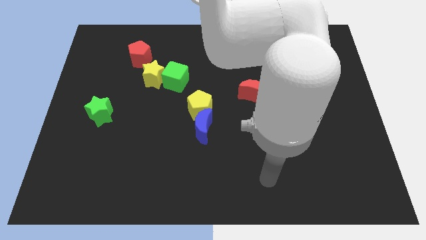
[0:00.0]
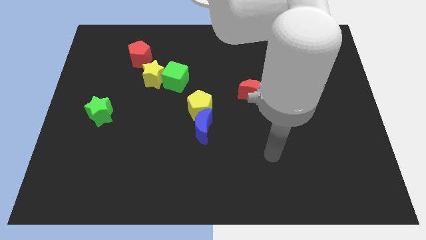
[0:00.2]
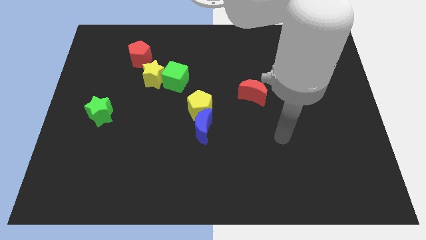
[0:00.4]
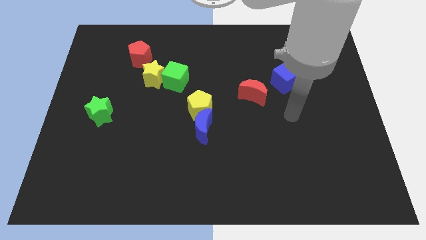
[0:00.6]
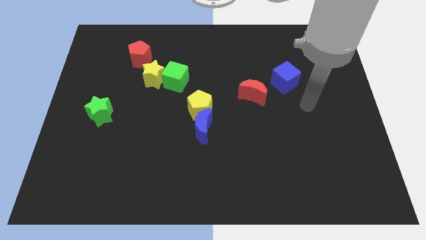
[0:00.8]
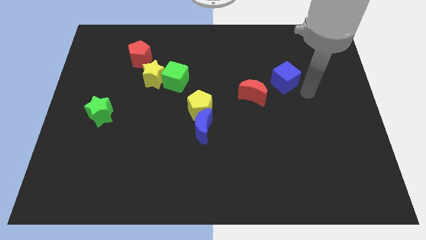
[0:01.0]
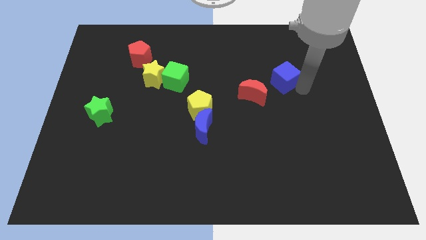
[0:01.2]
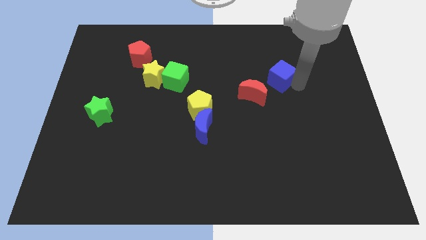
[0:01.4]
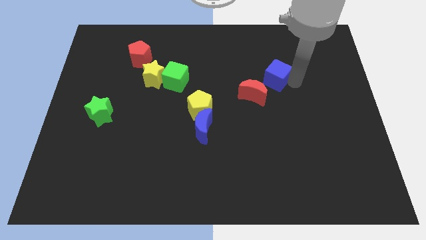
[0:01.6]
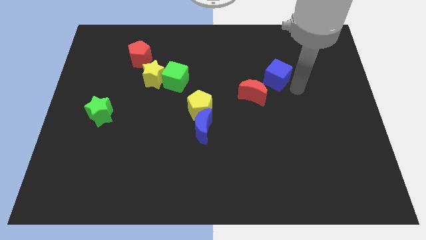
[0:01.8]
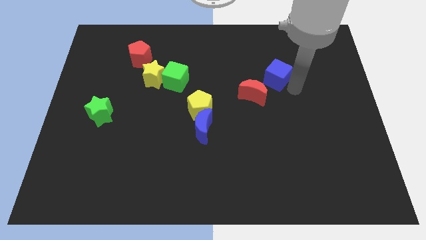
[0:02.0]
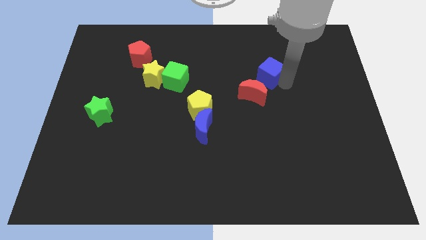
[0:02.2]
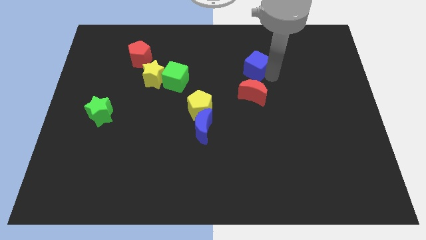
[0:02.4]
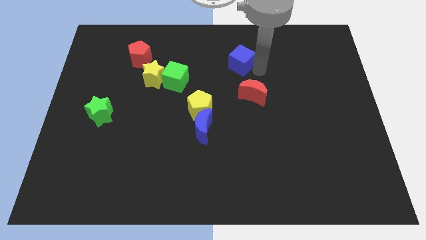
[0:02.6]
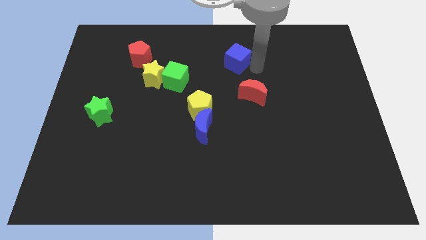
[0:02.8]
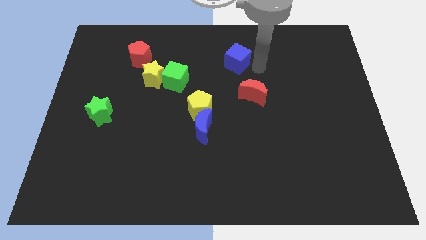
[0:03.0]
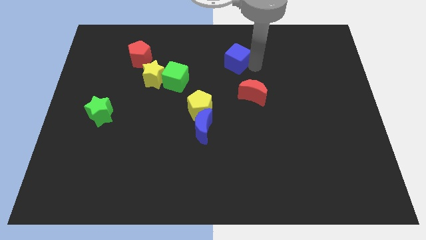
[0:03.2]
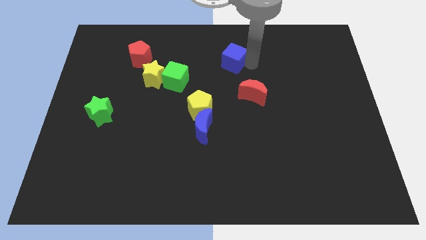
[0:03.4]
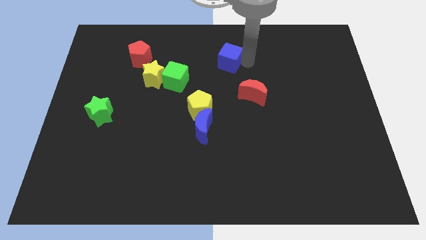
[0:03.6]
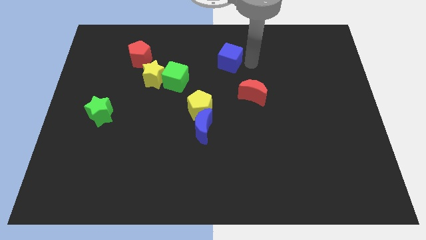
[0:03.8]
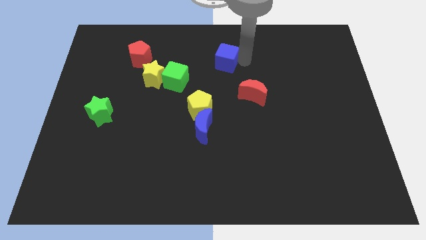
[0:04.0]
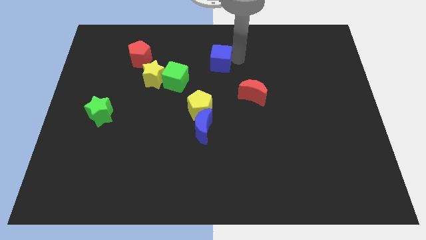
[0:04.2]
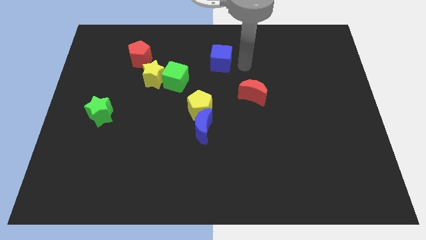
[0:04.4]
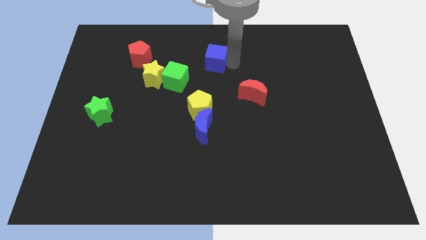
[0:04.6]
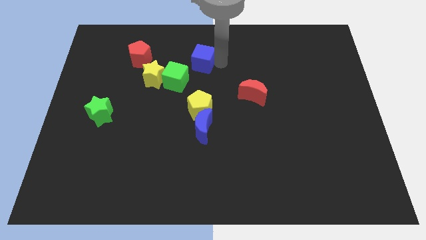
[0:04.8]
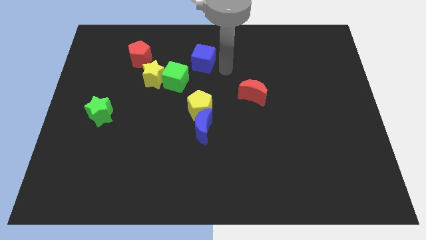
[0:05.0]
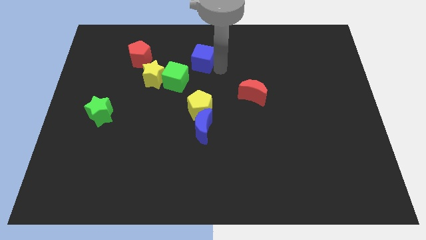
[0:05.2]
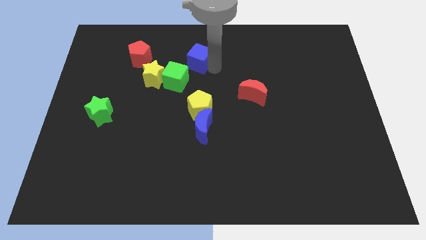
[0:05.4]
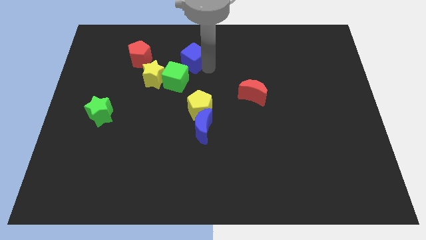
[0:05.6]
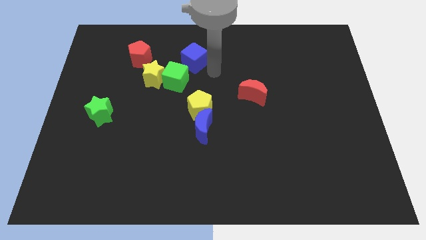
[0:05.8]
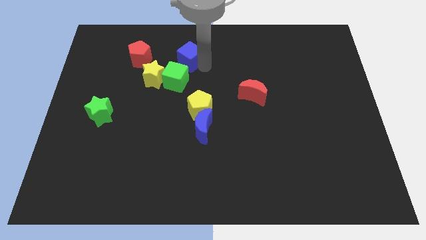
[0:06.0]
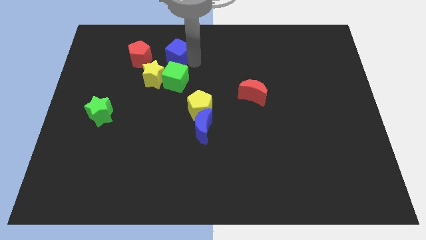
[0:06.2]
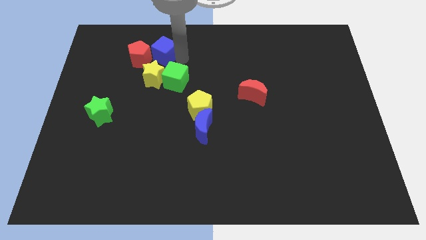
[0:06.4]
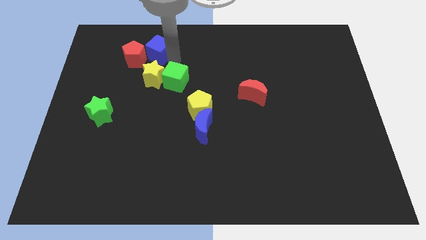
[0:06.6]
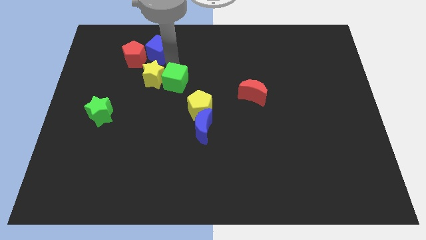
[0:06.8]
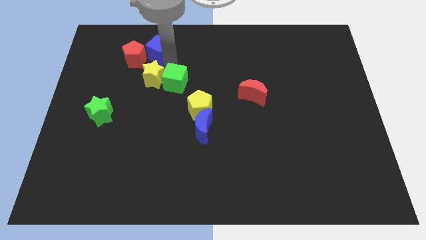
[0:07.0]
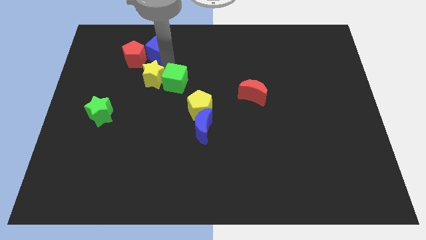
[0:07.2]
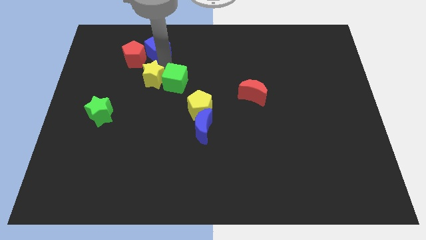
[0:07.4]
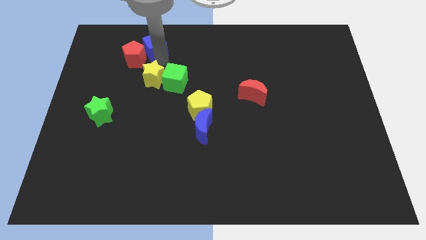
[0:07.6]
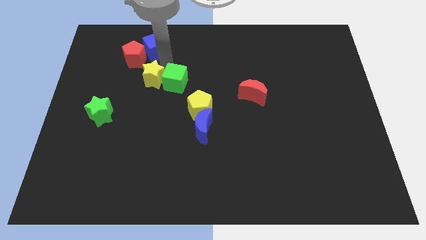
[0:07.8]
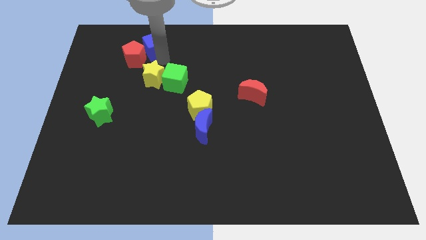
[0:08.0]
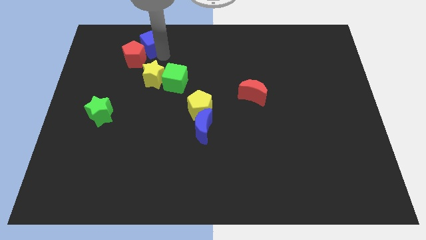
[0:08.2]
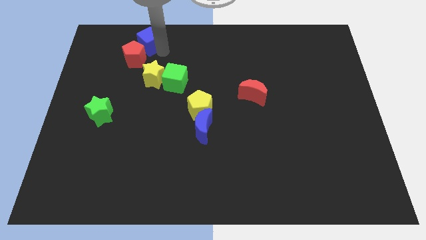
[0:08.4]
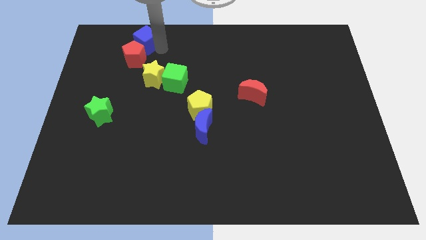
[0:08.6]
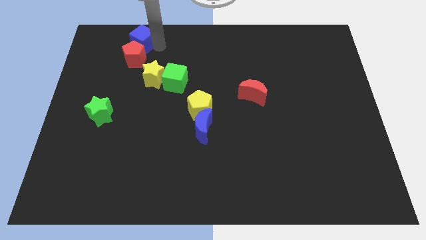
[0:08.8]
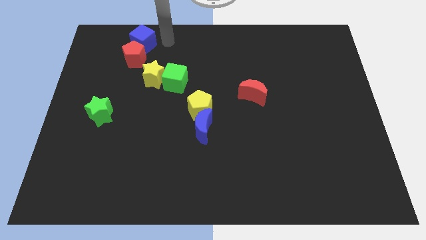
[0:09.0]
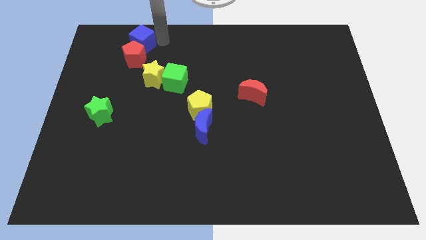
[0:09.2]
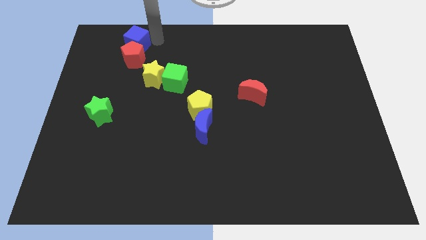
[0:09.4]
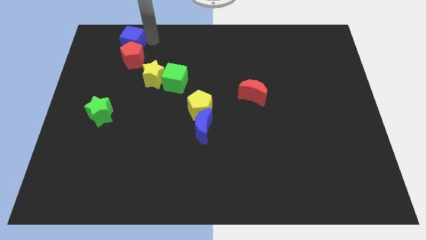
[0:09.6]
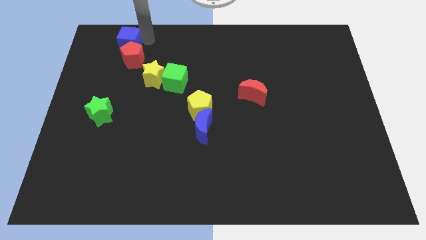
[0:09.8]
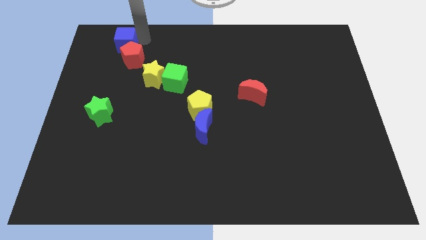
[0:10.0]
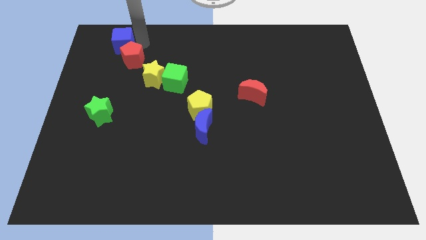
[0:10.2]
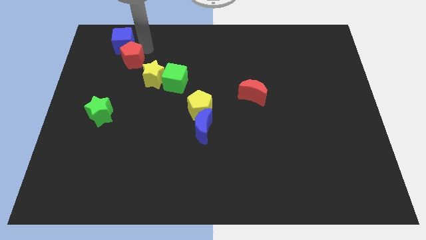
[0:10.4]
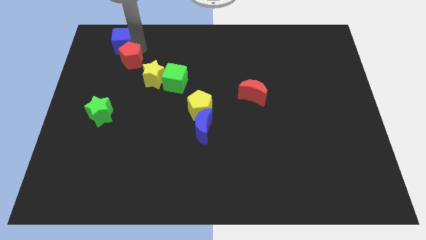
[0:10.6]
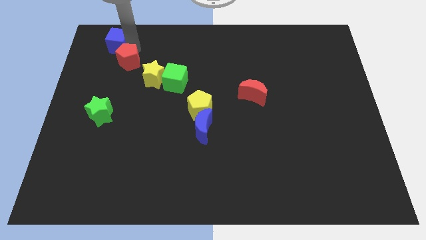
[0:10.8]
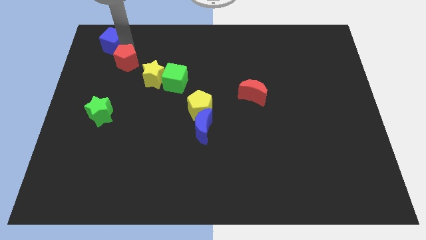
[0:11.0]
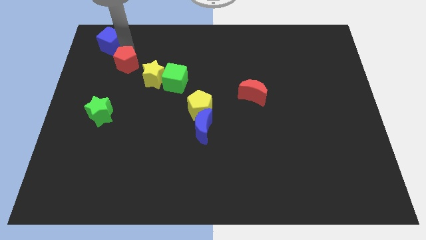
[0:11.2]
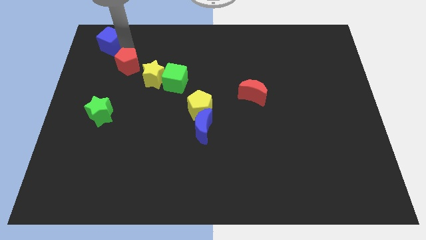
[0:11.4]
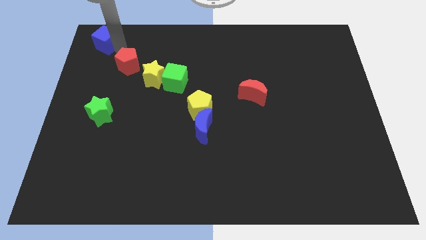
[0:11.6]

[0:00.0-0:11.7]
move the blue cube to the top left of the board

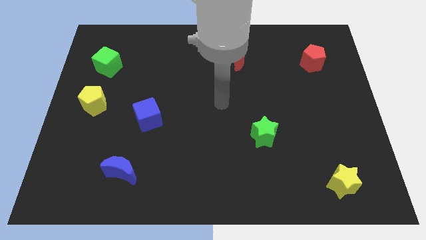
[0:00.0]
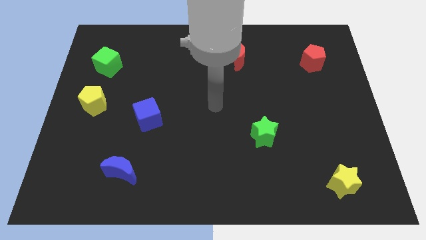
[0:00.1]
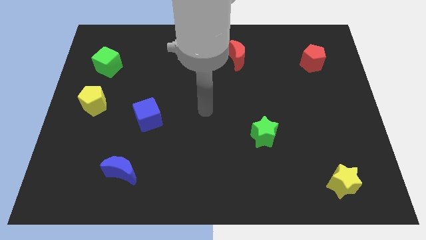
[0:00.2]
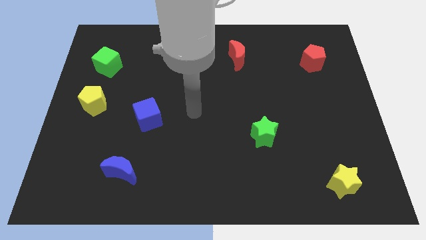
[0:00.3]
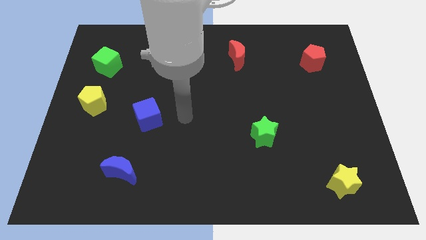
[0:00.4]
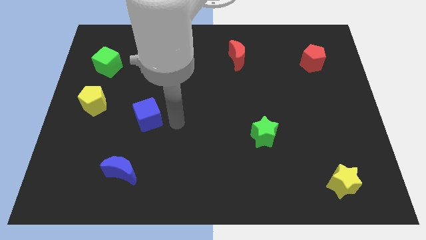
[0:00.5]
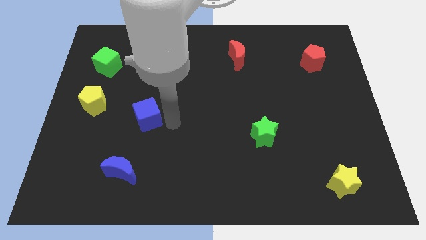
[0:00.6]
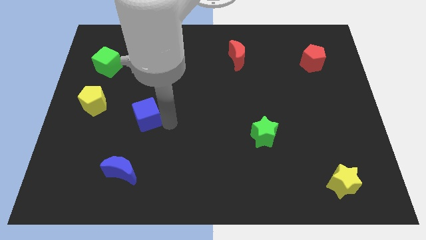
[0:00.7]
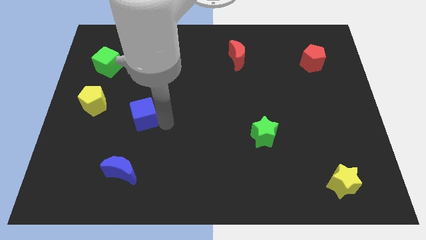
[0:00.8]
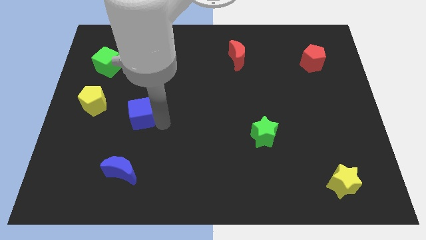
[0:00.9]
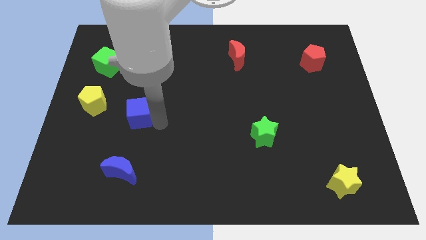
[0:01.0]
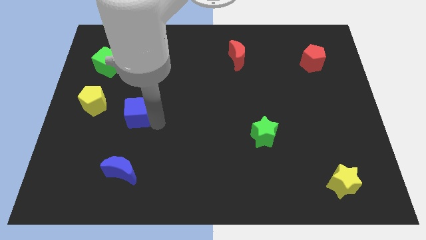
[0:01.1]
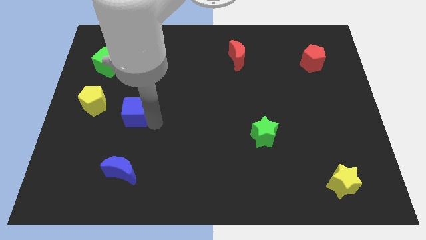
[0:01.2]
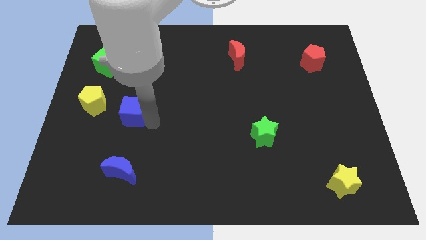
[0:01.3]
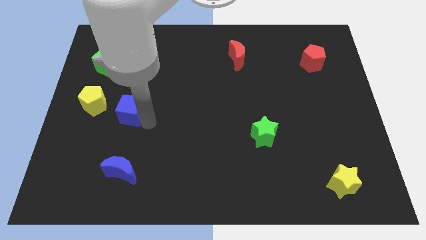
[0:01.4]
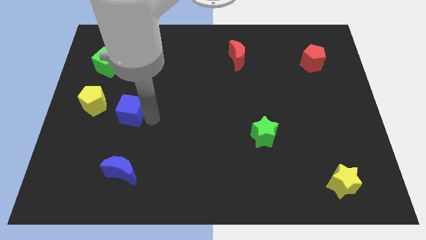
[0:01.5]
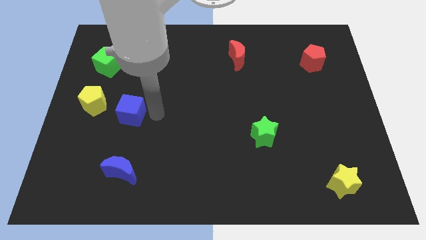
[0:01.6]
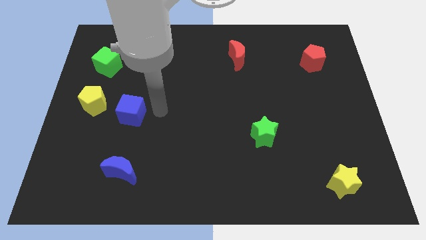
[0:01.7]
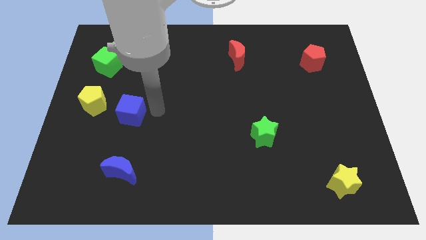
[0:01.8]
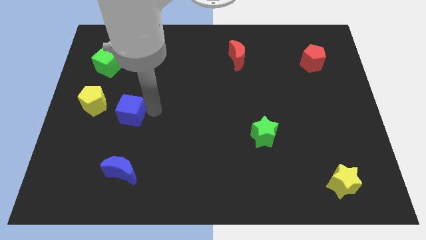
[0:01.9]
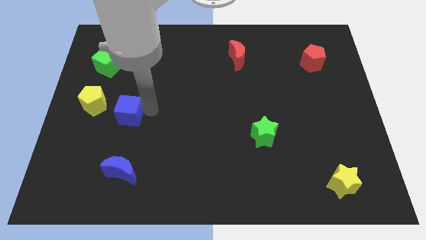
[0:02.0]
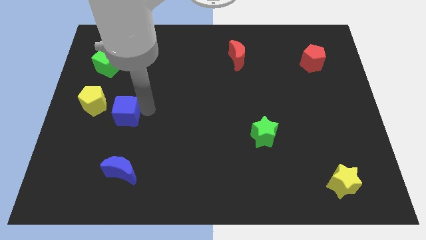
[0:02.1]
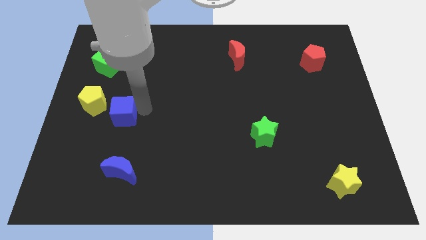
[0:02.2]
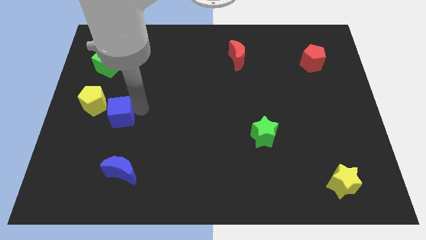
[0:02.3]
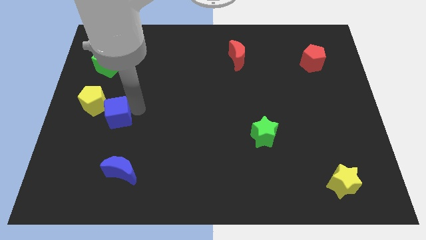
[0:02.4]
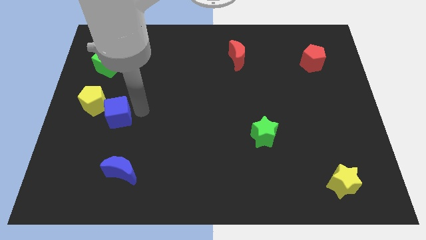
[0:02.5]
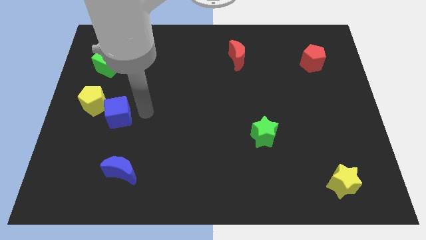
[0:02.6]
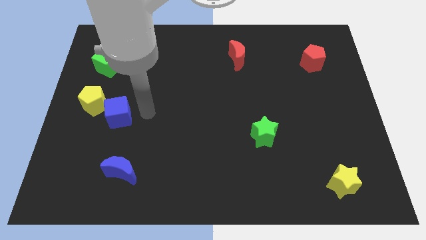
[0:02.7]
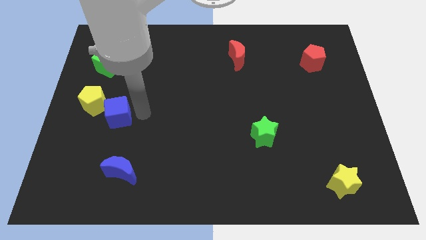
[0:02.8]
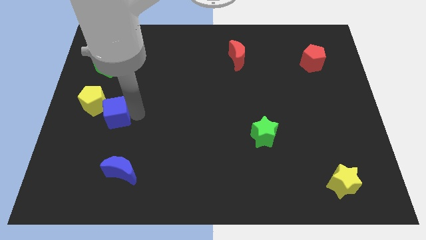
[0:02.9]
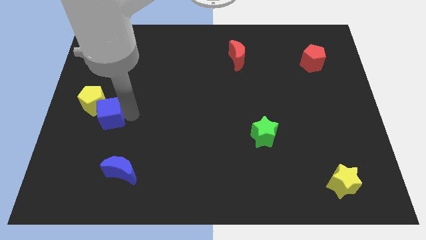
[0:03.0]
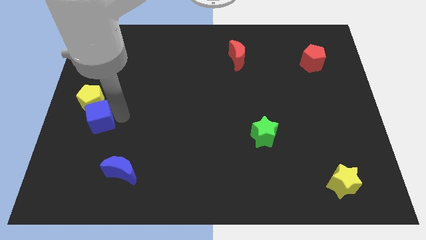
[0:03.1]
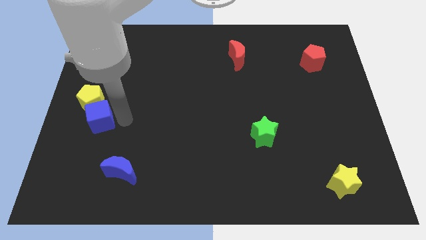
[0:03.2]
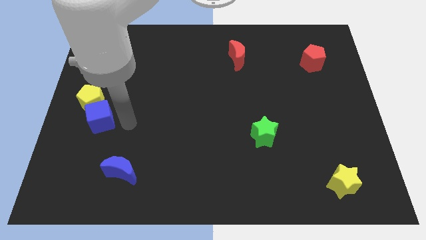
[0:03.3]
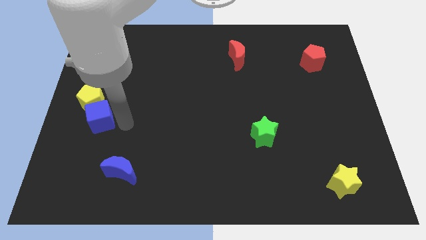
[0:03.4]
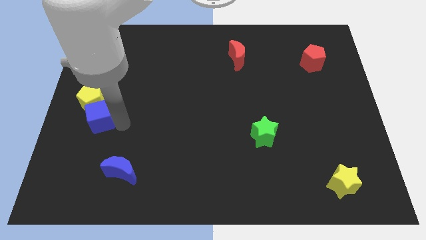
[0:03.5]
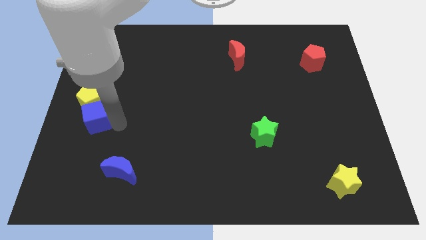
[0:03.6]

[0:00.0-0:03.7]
push the blue cube to the left side
